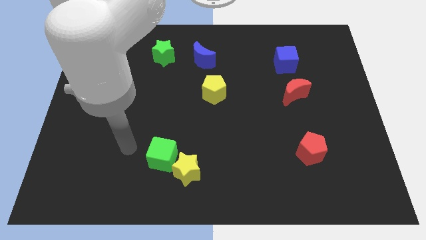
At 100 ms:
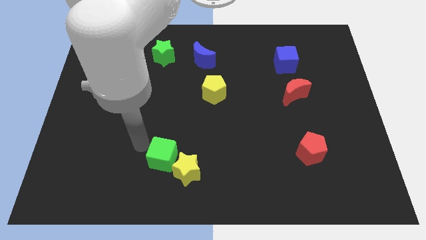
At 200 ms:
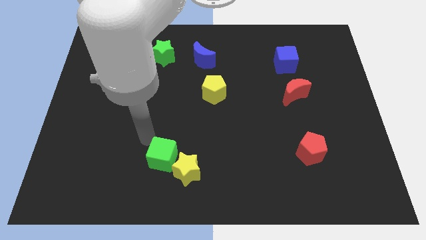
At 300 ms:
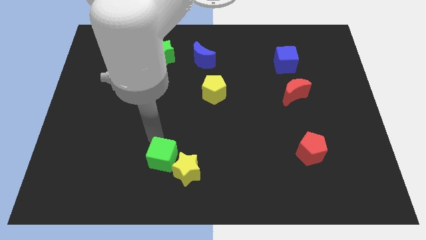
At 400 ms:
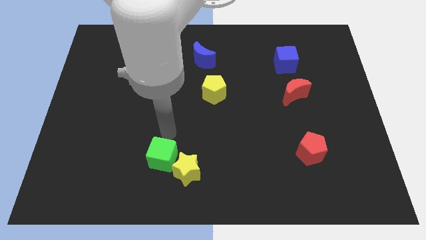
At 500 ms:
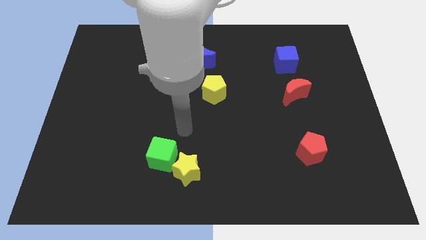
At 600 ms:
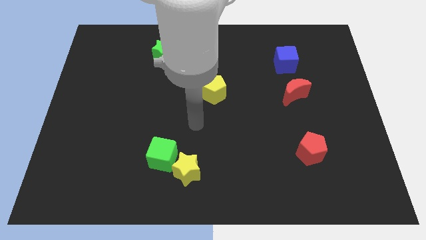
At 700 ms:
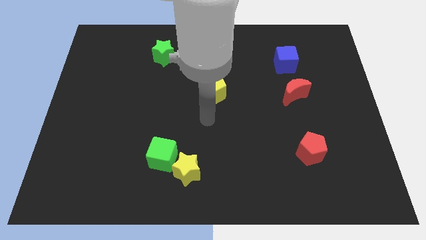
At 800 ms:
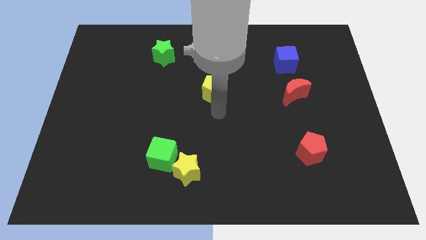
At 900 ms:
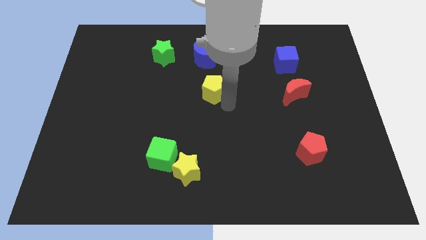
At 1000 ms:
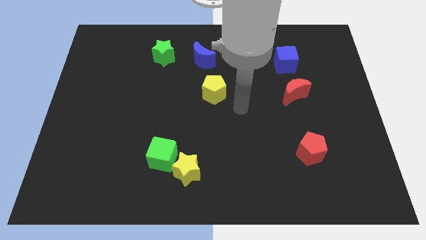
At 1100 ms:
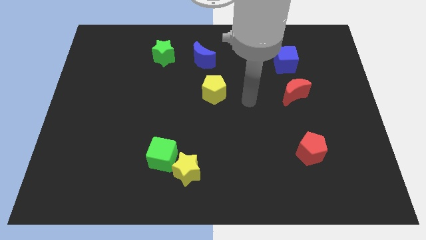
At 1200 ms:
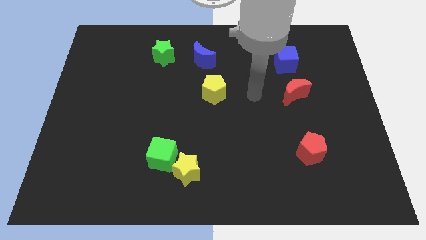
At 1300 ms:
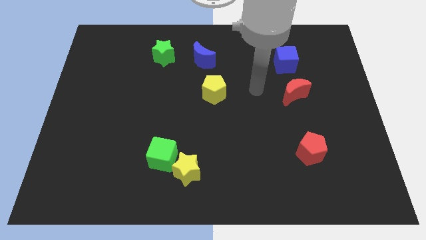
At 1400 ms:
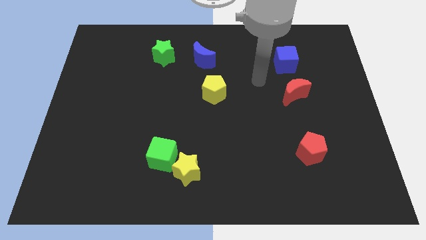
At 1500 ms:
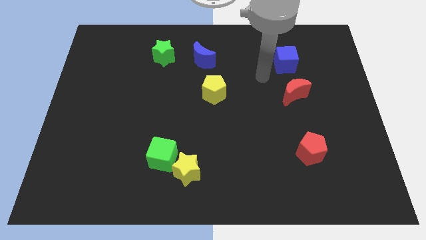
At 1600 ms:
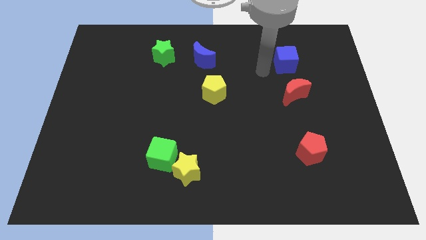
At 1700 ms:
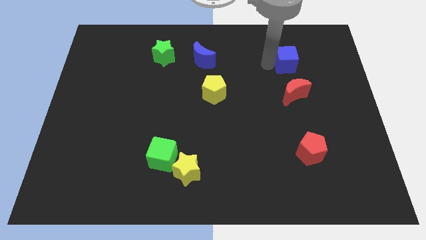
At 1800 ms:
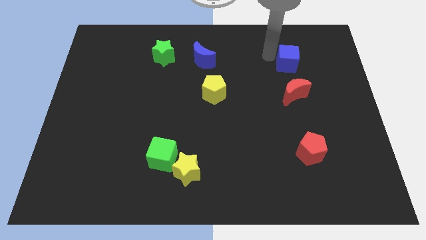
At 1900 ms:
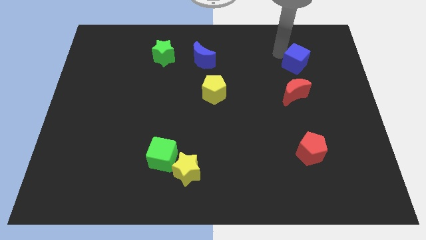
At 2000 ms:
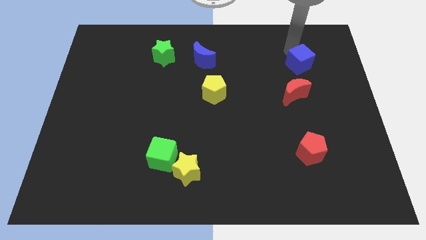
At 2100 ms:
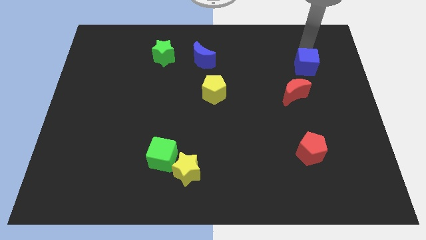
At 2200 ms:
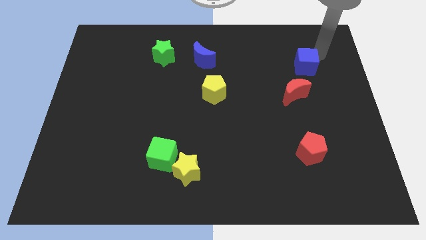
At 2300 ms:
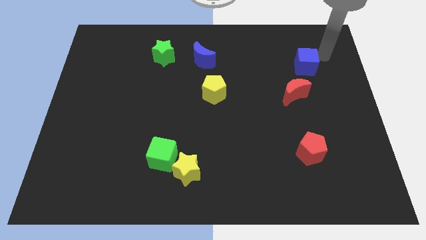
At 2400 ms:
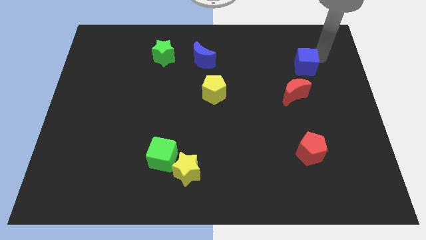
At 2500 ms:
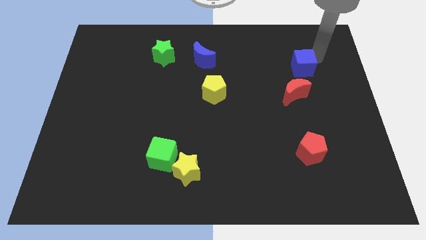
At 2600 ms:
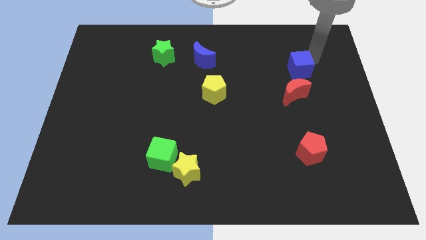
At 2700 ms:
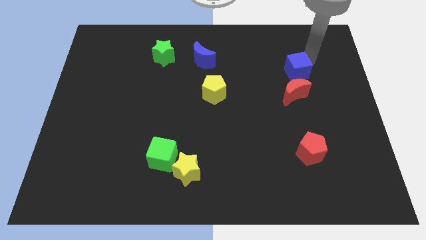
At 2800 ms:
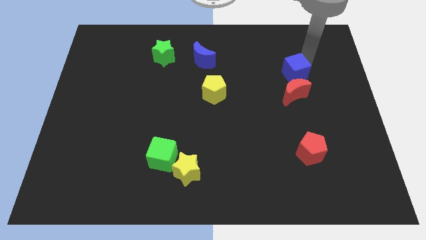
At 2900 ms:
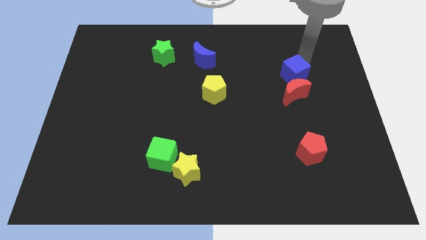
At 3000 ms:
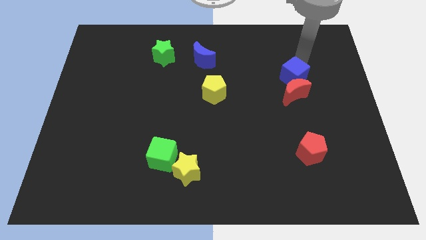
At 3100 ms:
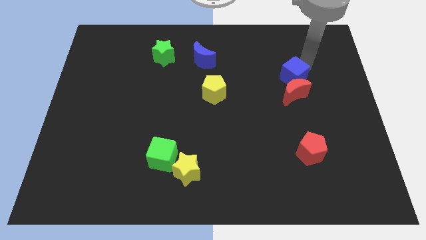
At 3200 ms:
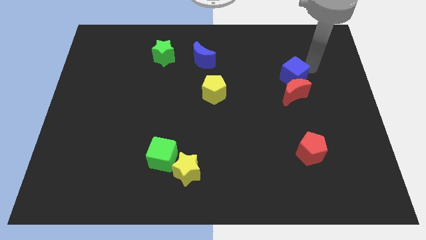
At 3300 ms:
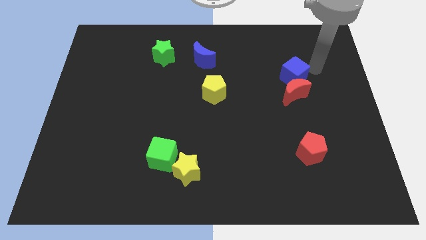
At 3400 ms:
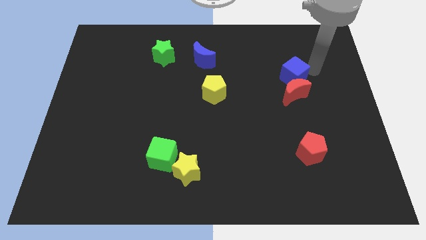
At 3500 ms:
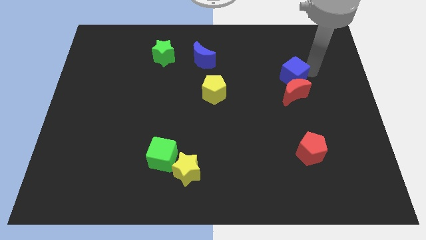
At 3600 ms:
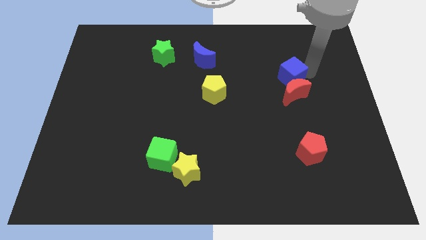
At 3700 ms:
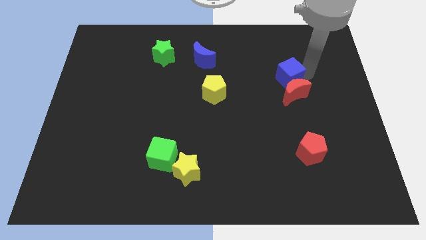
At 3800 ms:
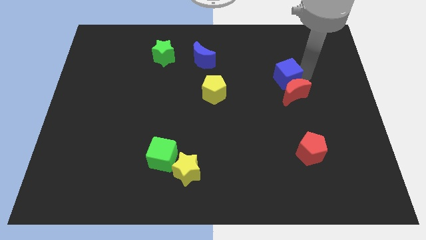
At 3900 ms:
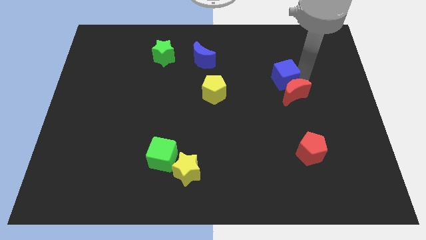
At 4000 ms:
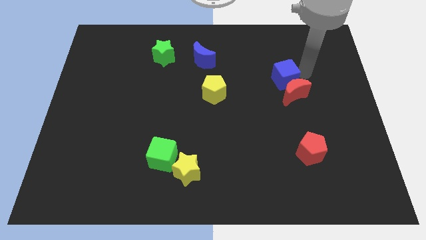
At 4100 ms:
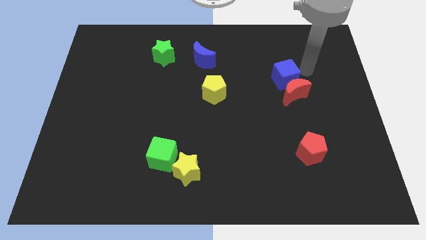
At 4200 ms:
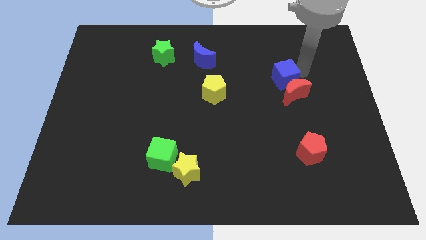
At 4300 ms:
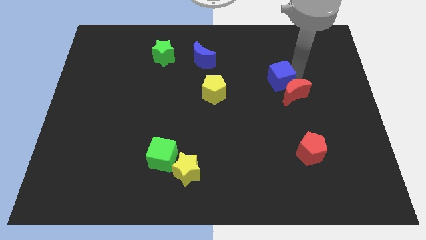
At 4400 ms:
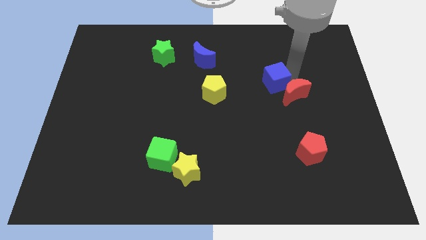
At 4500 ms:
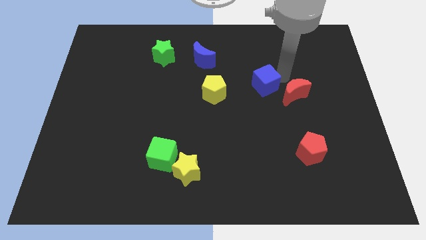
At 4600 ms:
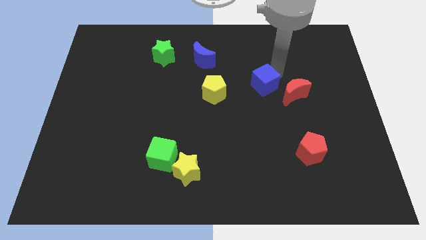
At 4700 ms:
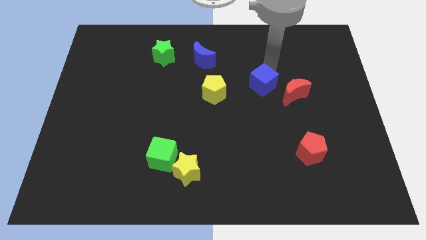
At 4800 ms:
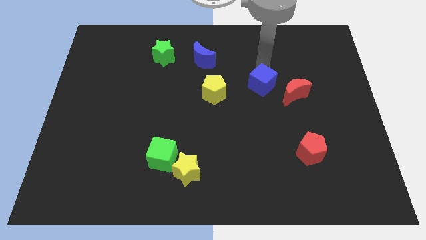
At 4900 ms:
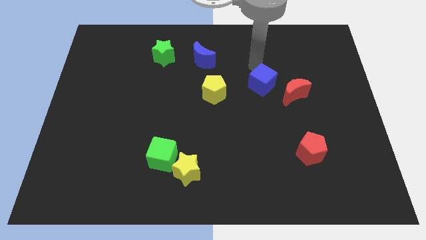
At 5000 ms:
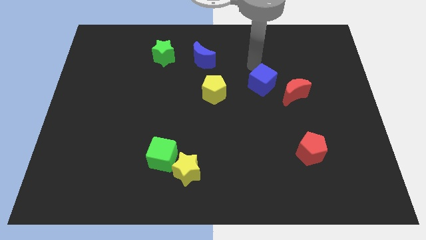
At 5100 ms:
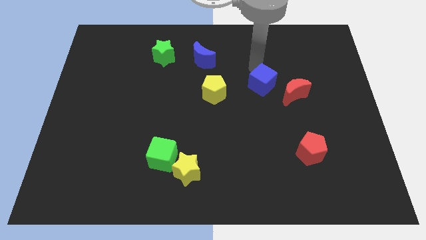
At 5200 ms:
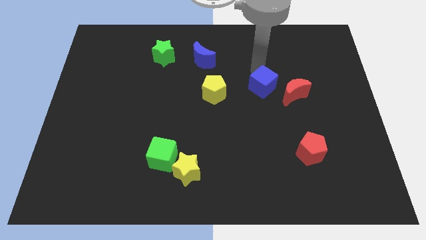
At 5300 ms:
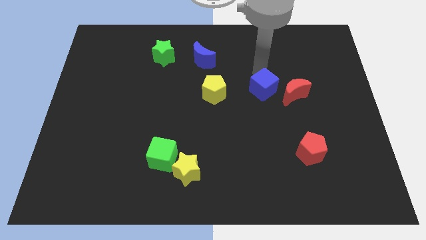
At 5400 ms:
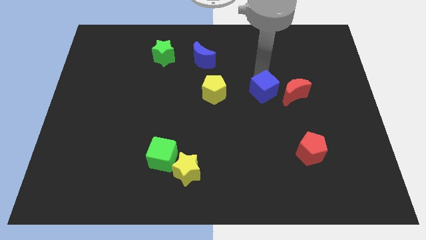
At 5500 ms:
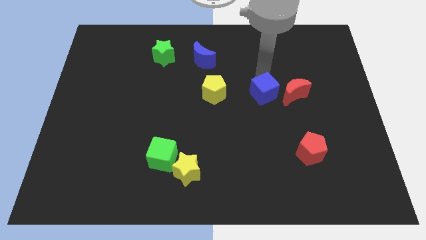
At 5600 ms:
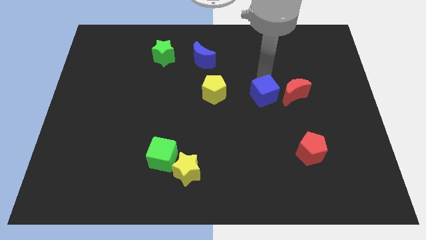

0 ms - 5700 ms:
slide the blue cube to the bottom left side of the red moon

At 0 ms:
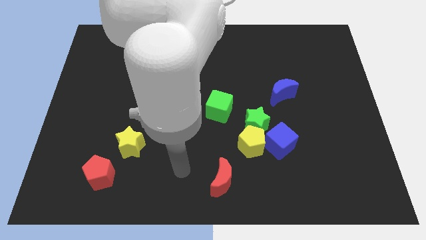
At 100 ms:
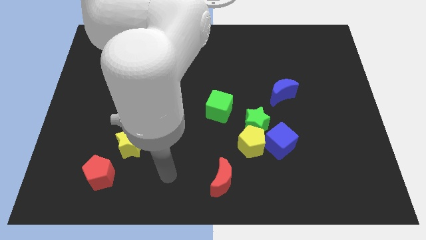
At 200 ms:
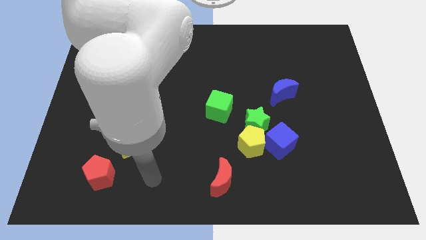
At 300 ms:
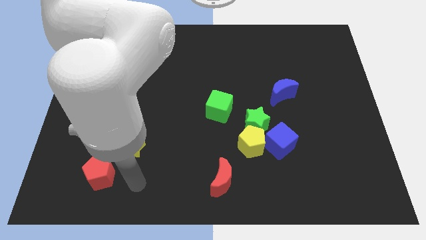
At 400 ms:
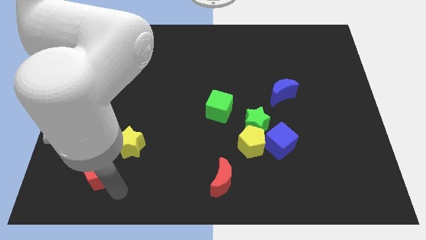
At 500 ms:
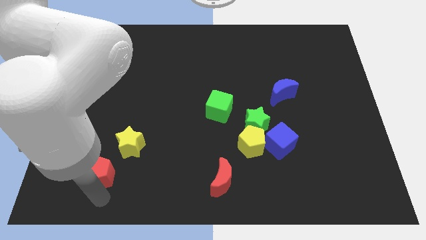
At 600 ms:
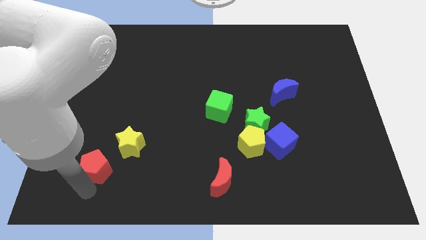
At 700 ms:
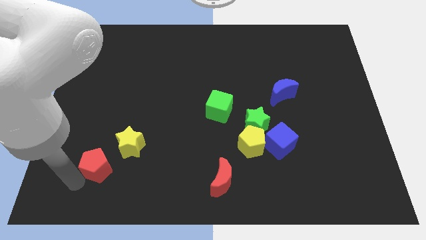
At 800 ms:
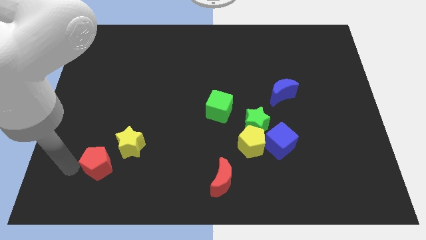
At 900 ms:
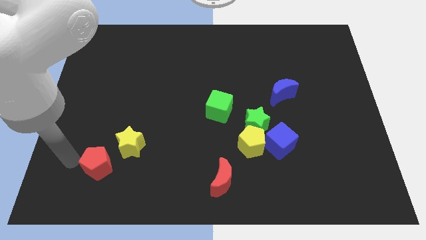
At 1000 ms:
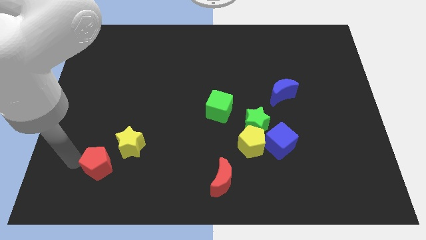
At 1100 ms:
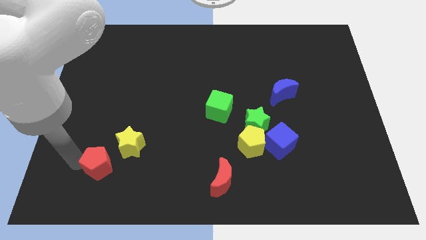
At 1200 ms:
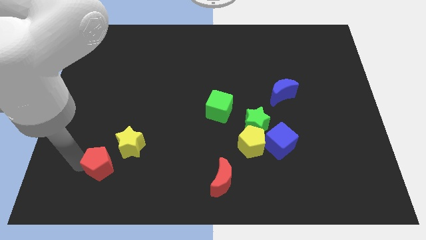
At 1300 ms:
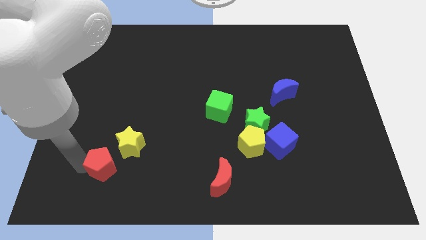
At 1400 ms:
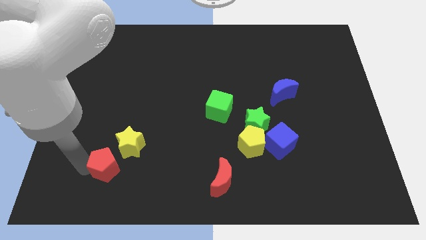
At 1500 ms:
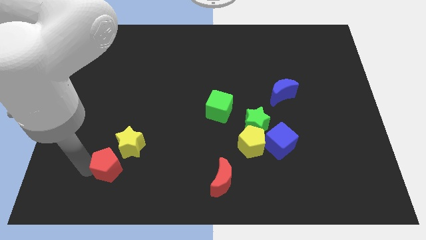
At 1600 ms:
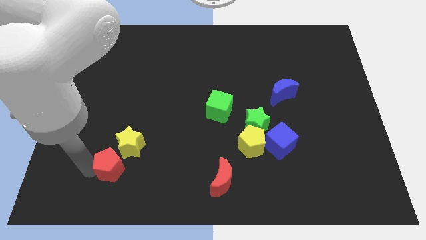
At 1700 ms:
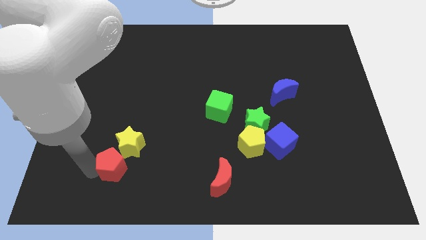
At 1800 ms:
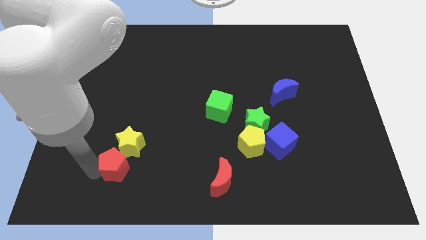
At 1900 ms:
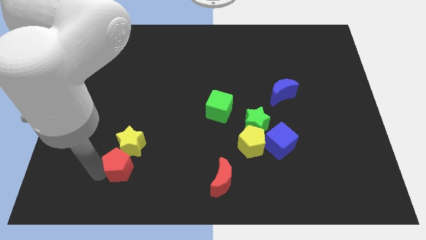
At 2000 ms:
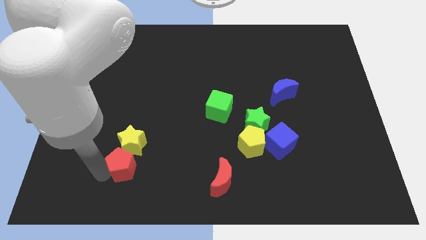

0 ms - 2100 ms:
push the red pentagon diagonally down and to the right of the yellow star
